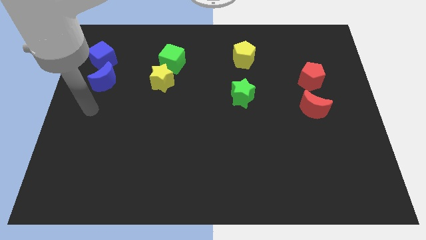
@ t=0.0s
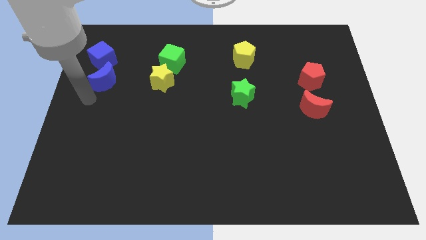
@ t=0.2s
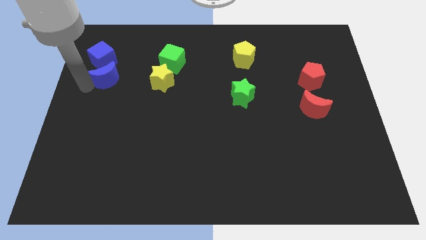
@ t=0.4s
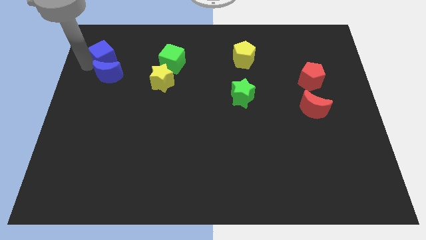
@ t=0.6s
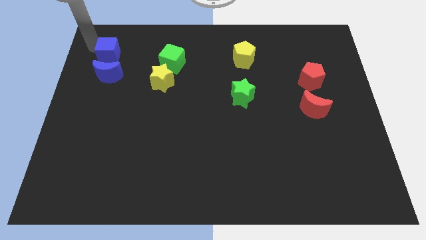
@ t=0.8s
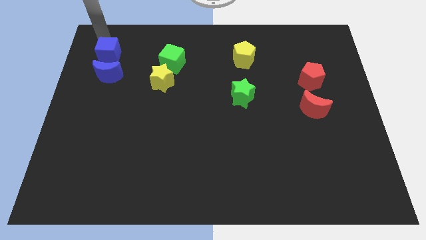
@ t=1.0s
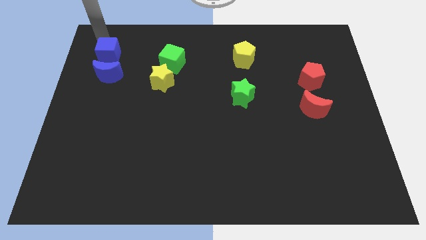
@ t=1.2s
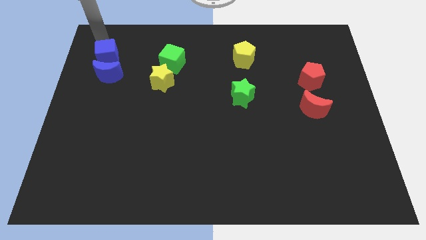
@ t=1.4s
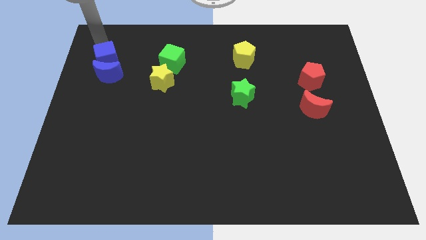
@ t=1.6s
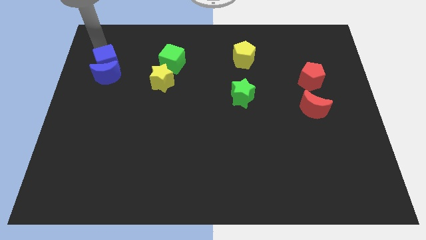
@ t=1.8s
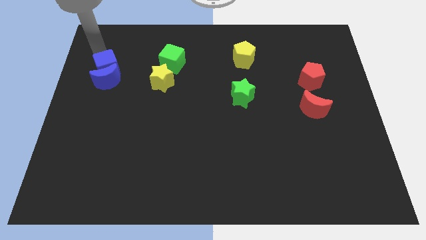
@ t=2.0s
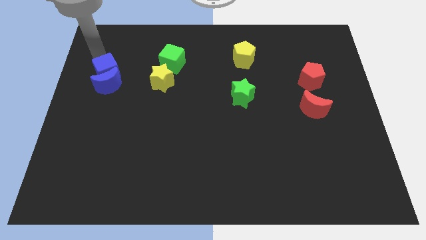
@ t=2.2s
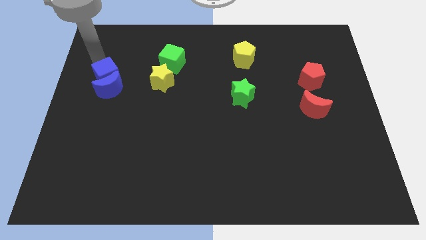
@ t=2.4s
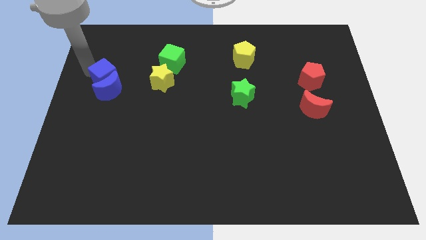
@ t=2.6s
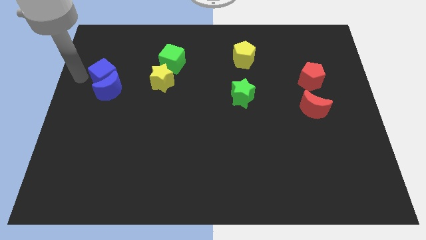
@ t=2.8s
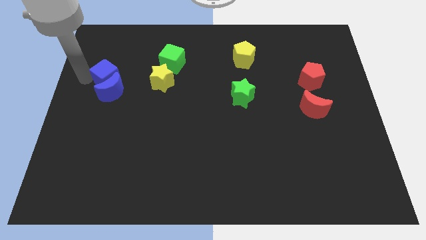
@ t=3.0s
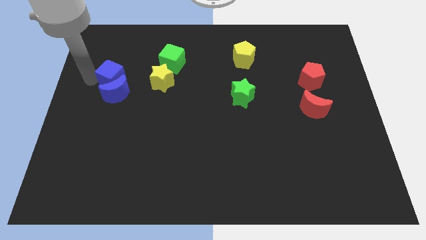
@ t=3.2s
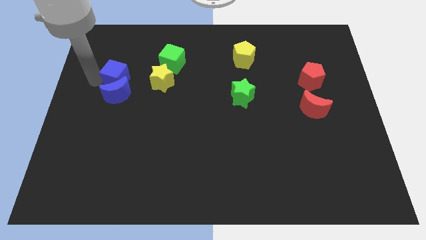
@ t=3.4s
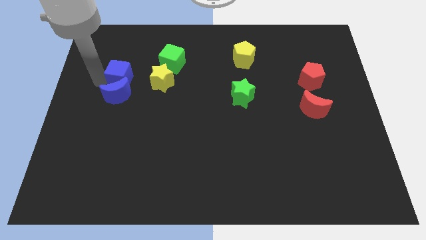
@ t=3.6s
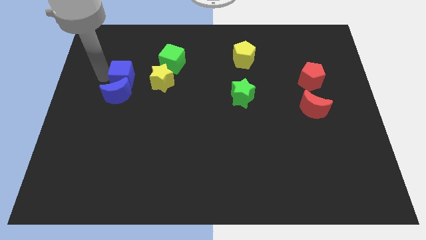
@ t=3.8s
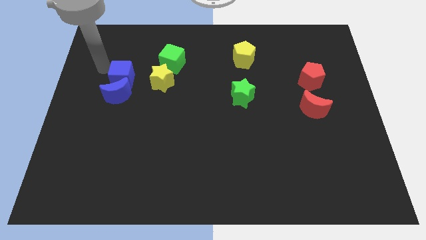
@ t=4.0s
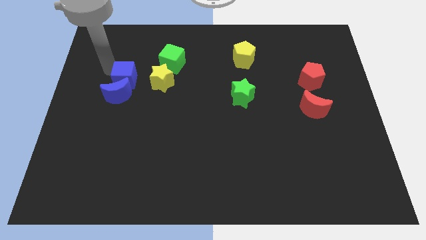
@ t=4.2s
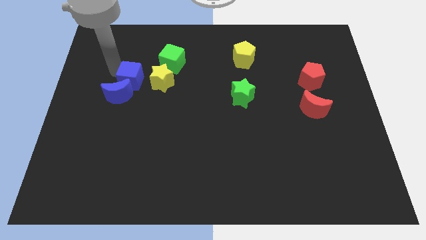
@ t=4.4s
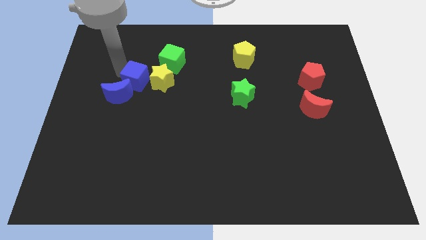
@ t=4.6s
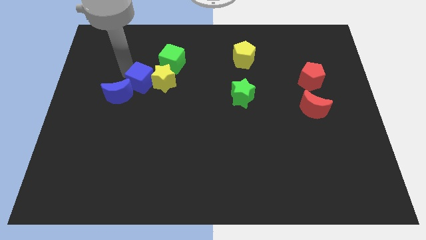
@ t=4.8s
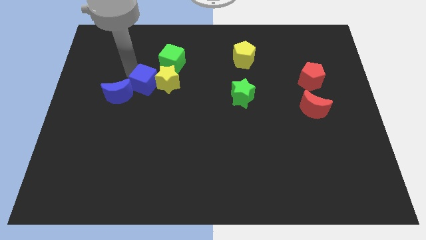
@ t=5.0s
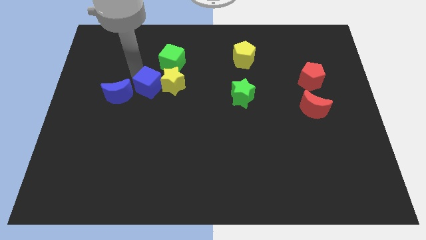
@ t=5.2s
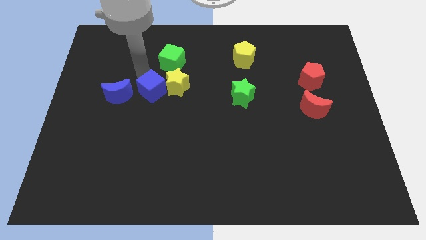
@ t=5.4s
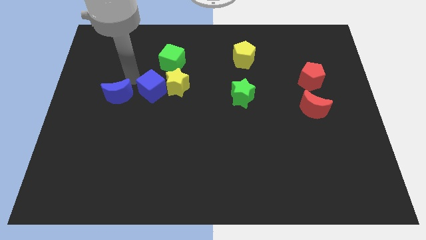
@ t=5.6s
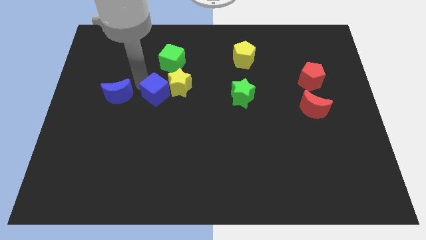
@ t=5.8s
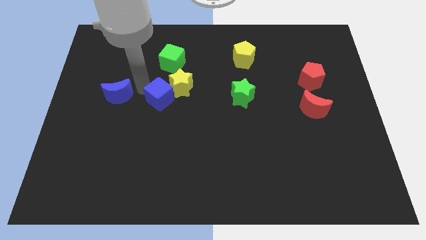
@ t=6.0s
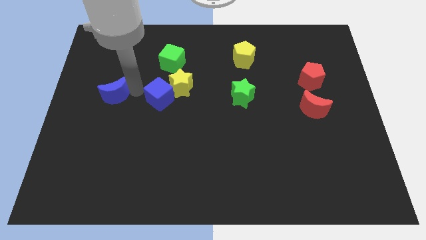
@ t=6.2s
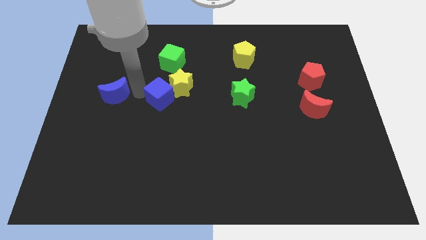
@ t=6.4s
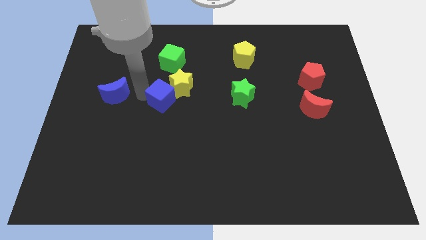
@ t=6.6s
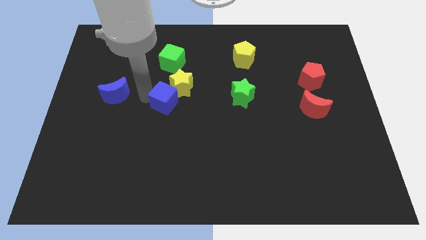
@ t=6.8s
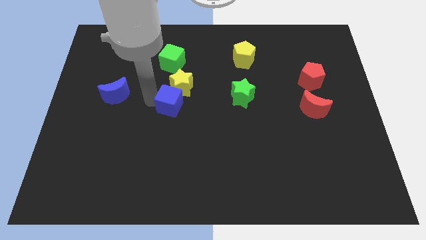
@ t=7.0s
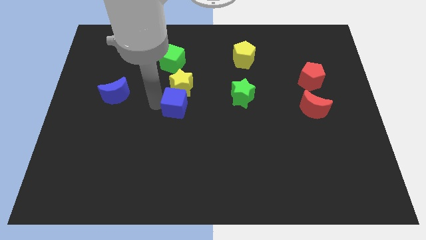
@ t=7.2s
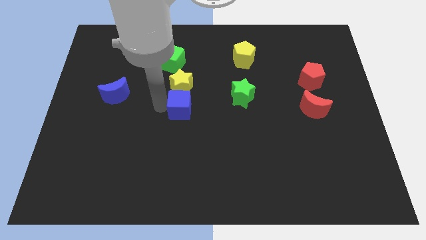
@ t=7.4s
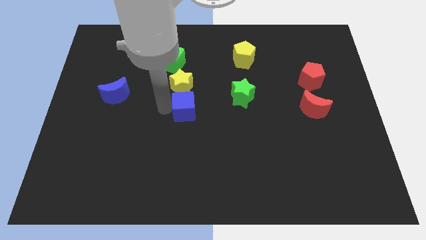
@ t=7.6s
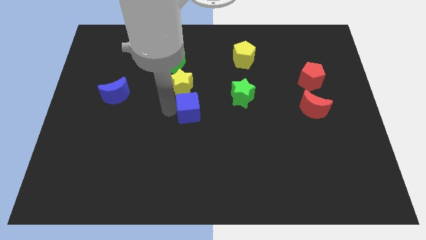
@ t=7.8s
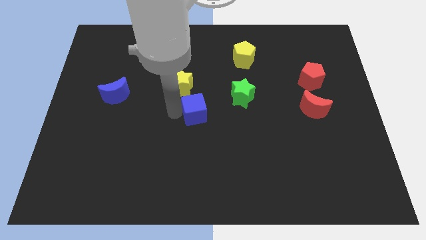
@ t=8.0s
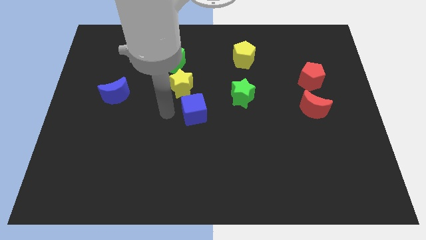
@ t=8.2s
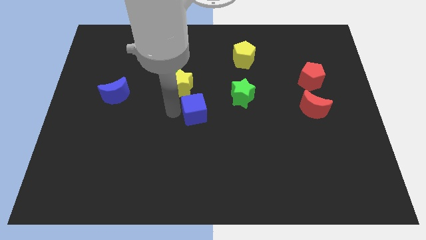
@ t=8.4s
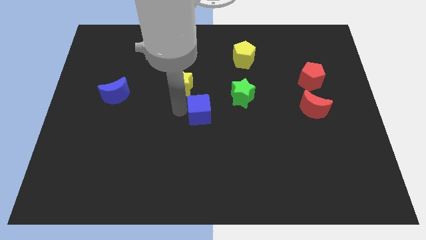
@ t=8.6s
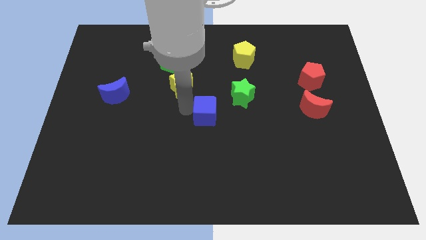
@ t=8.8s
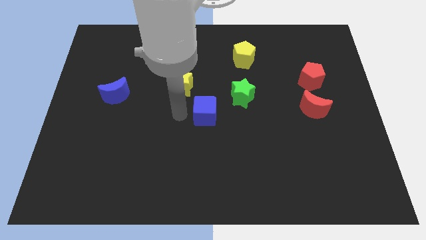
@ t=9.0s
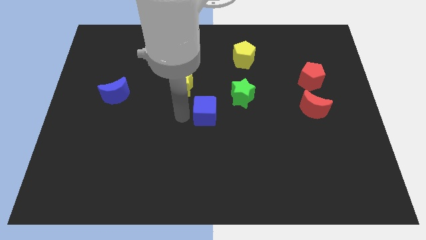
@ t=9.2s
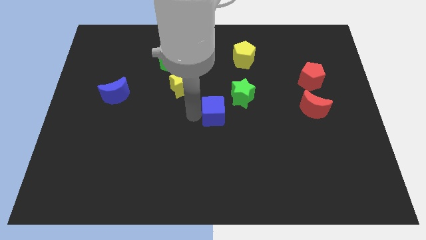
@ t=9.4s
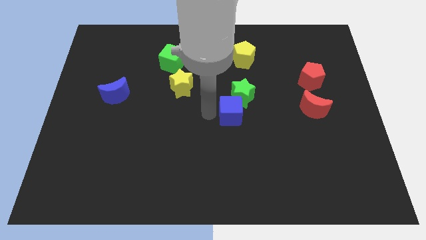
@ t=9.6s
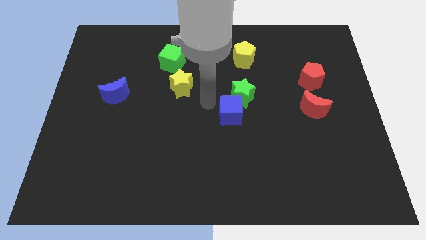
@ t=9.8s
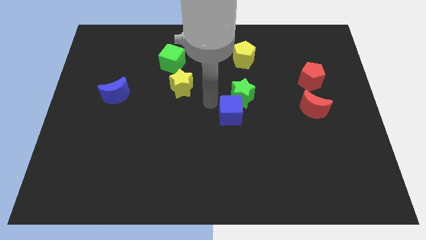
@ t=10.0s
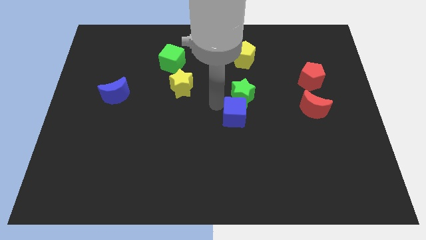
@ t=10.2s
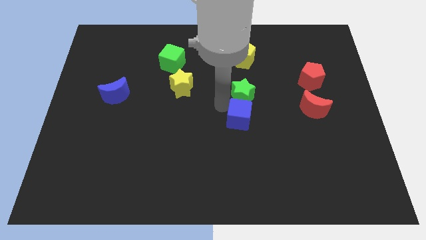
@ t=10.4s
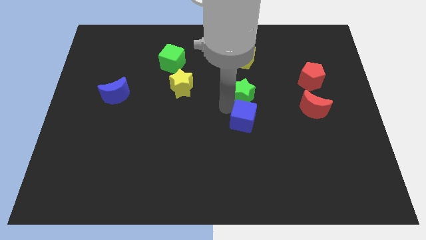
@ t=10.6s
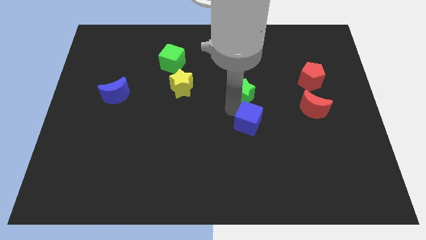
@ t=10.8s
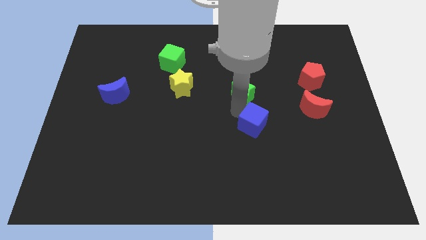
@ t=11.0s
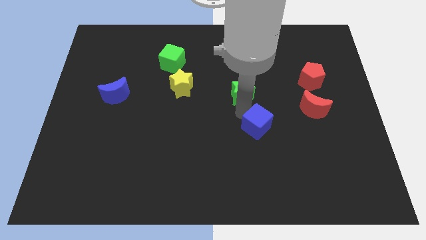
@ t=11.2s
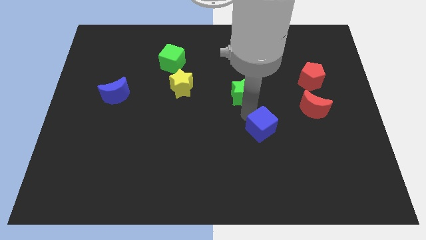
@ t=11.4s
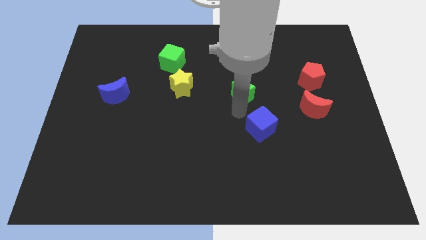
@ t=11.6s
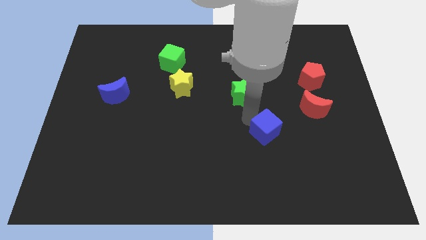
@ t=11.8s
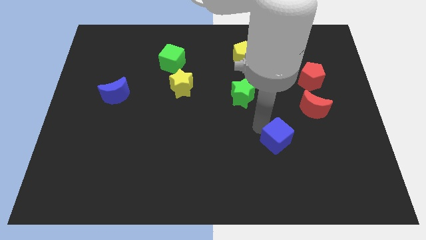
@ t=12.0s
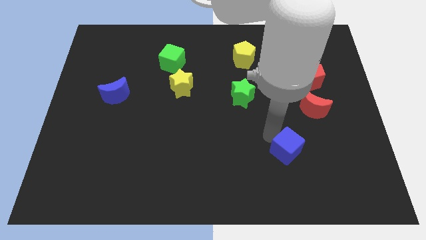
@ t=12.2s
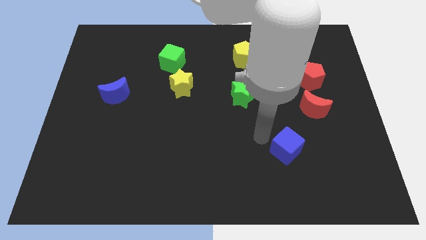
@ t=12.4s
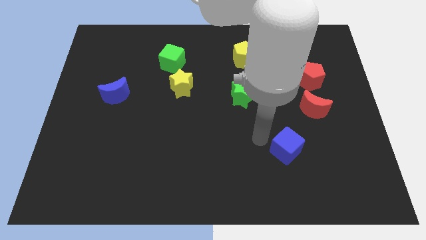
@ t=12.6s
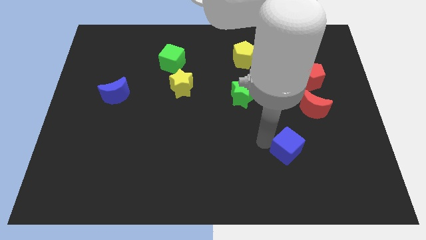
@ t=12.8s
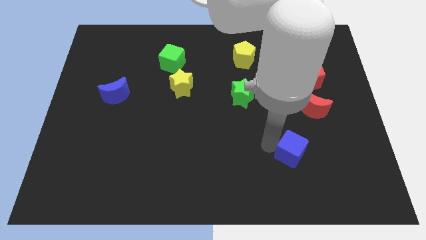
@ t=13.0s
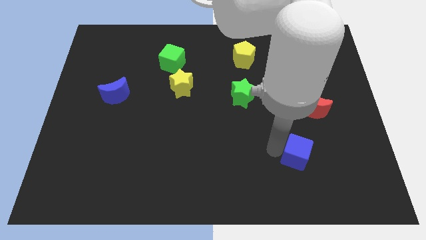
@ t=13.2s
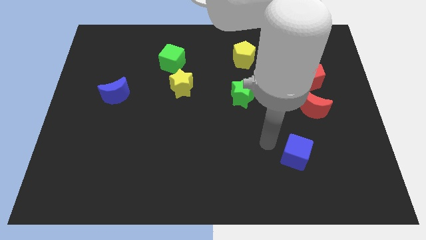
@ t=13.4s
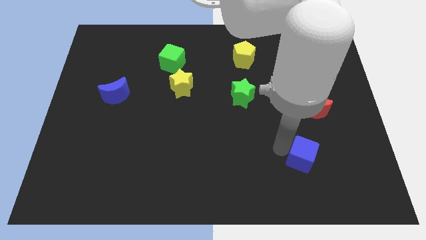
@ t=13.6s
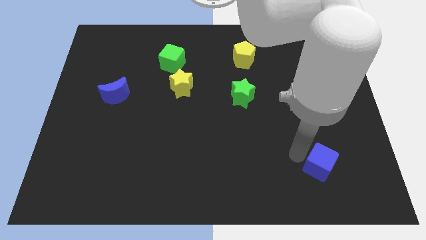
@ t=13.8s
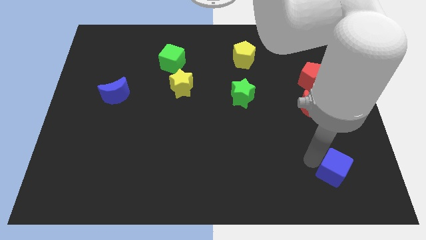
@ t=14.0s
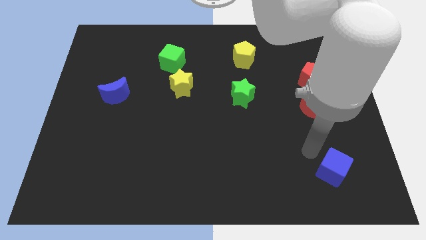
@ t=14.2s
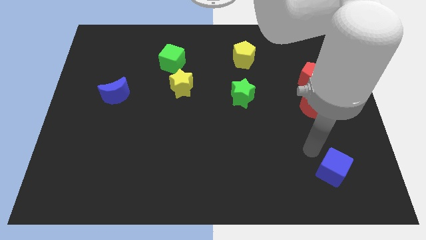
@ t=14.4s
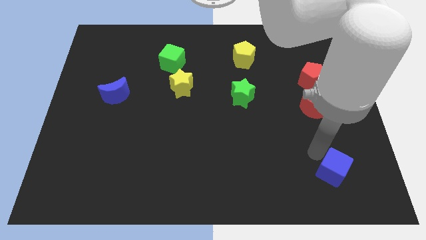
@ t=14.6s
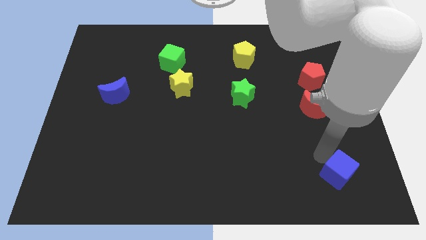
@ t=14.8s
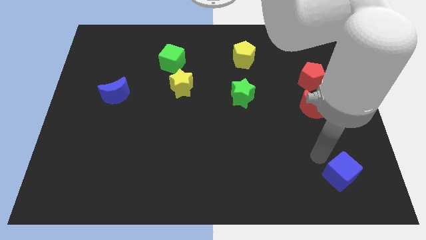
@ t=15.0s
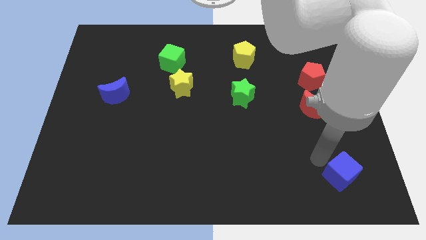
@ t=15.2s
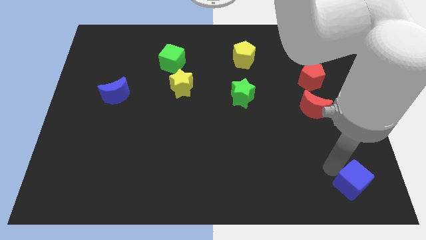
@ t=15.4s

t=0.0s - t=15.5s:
push the blue cube to the bottom right corner
